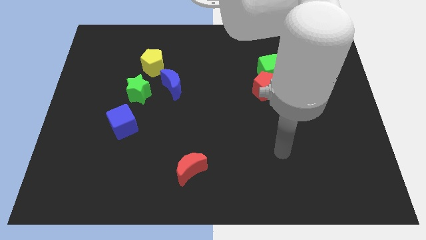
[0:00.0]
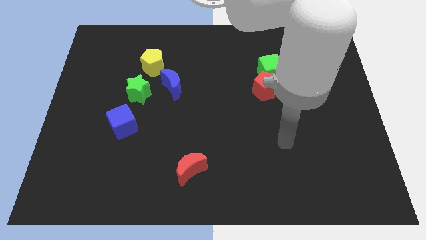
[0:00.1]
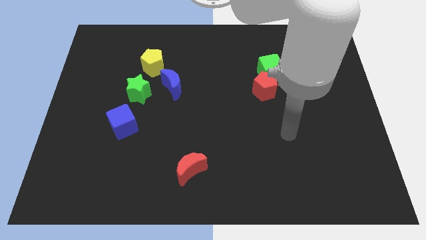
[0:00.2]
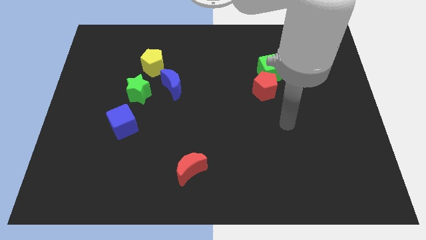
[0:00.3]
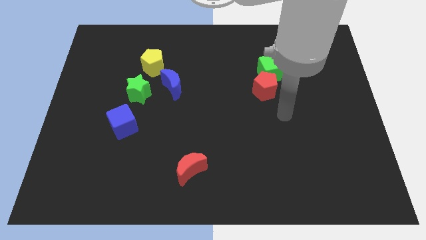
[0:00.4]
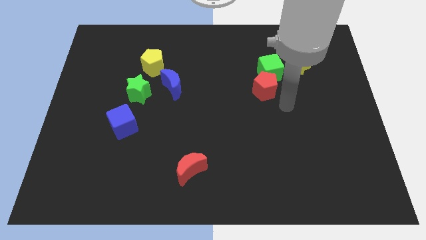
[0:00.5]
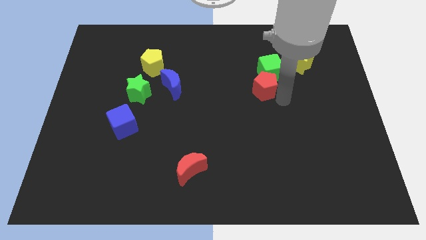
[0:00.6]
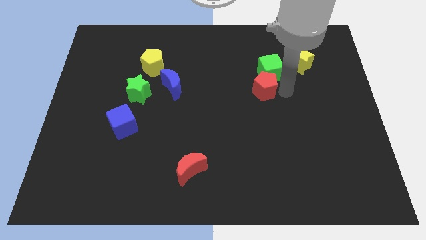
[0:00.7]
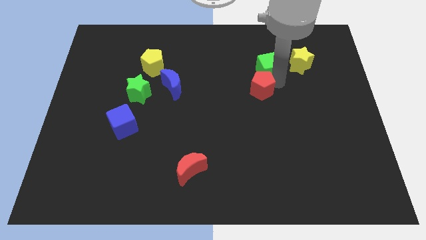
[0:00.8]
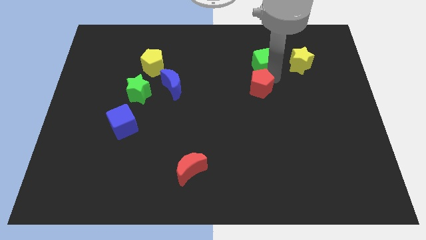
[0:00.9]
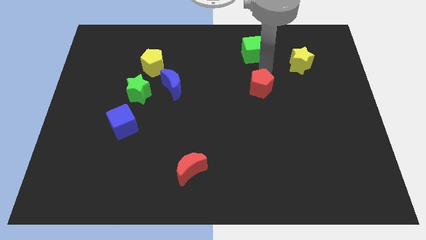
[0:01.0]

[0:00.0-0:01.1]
separate the red pentagon from the green cube

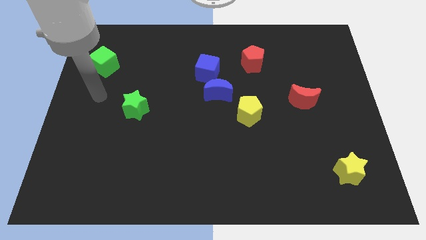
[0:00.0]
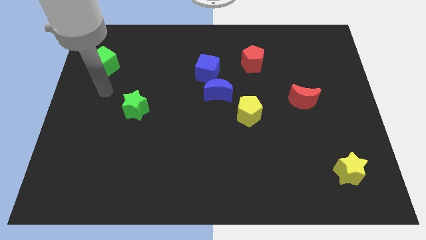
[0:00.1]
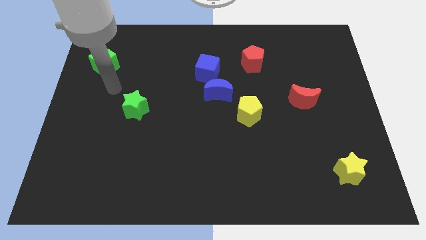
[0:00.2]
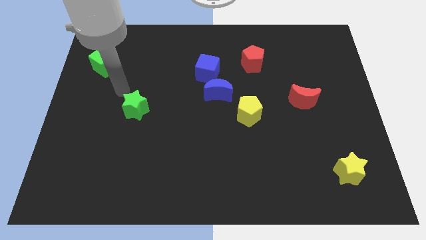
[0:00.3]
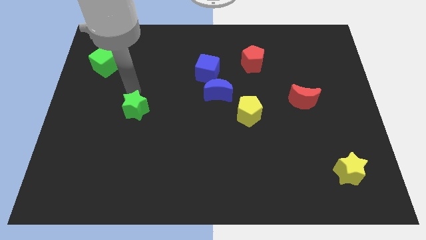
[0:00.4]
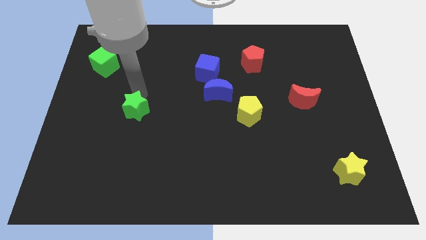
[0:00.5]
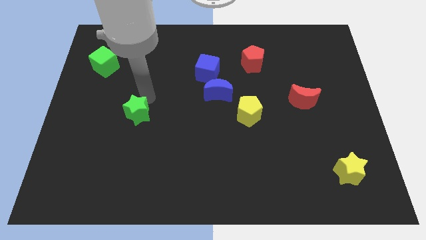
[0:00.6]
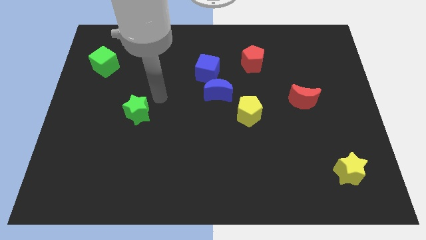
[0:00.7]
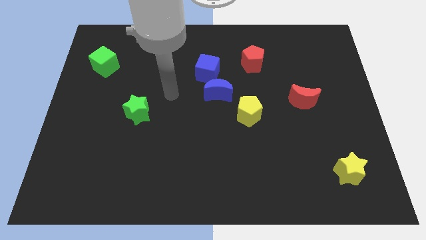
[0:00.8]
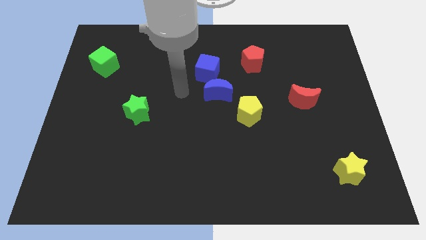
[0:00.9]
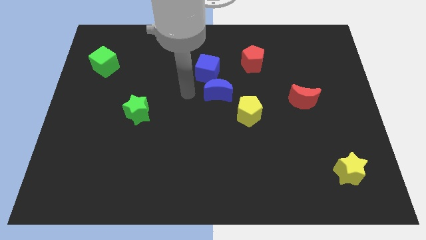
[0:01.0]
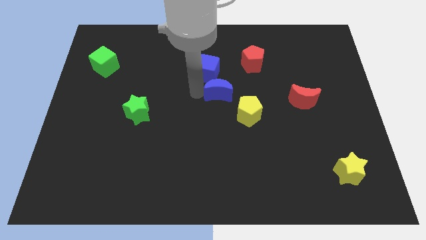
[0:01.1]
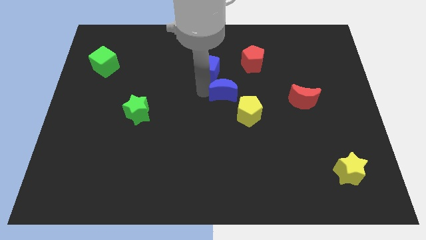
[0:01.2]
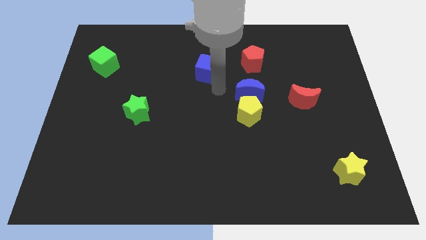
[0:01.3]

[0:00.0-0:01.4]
separate the blue cube from the blue moon

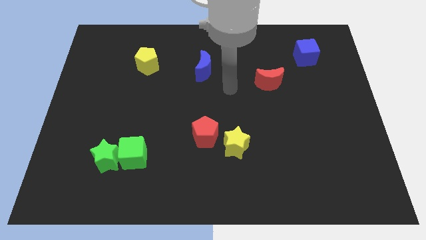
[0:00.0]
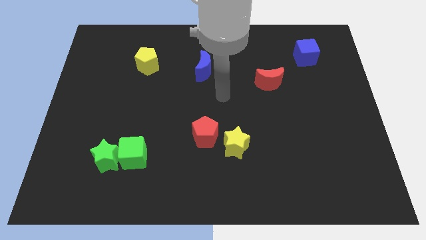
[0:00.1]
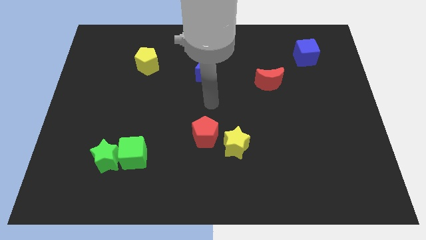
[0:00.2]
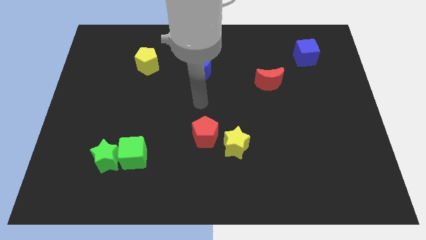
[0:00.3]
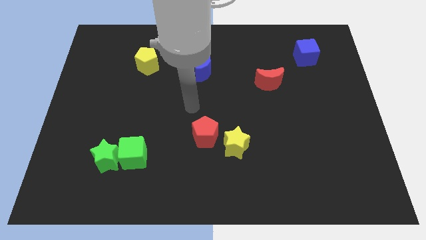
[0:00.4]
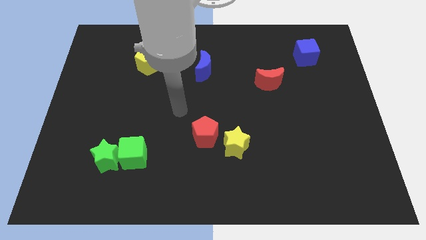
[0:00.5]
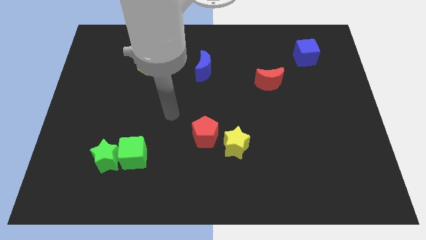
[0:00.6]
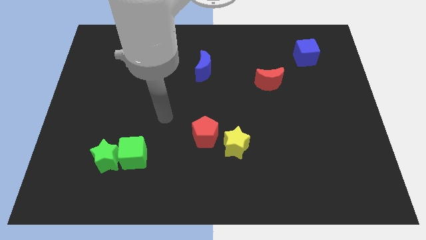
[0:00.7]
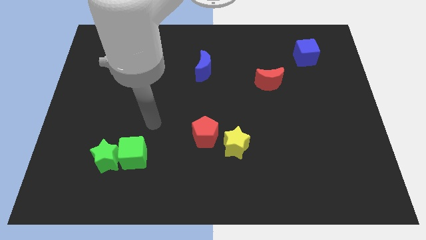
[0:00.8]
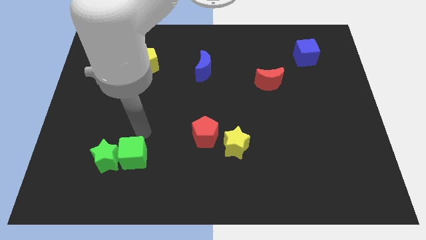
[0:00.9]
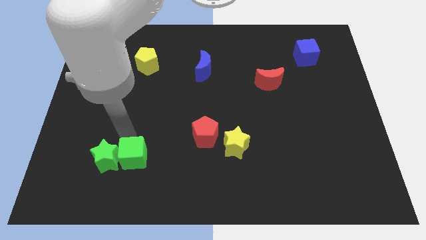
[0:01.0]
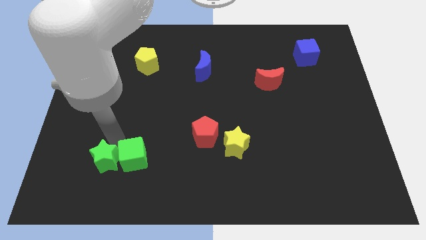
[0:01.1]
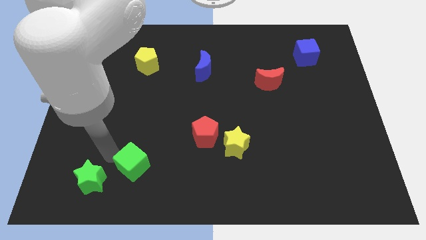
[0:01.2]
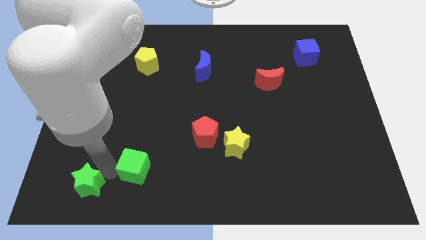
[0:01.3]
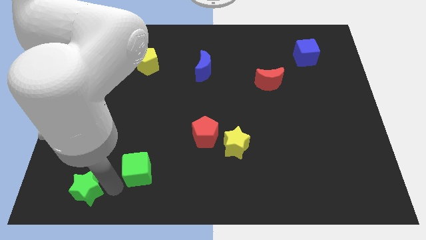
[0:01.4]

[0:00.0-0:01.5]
pull the green cube apart from the green star

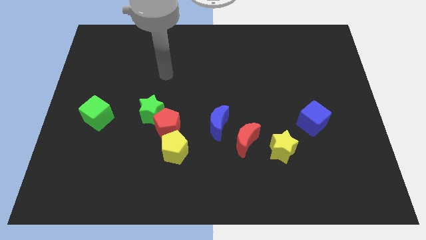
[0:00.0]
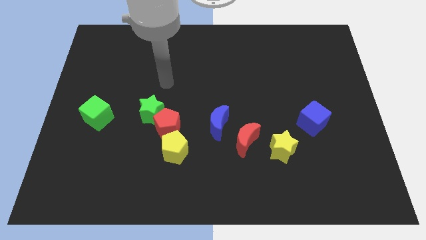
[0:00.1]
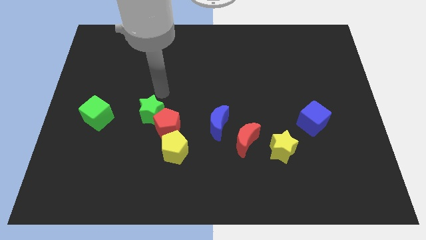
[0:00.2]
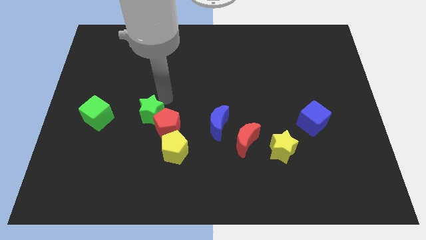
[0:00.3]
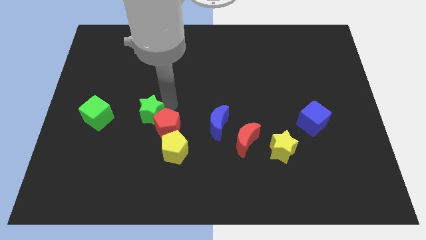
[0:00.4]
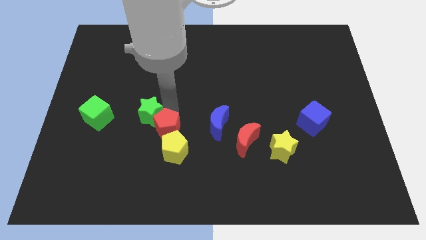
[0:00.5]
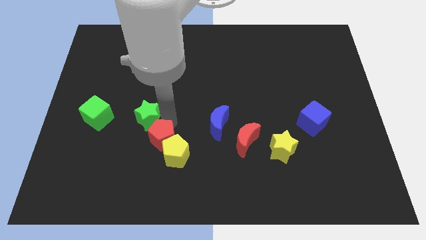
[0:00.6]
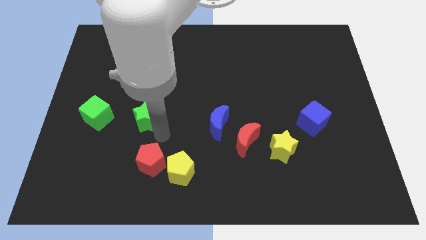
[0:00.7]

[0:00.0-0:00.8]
separate the green star from the red pentagon

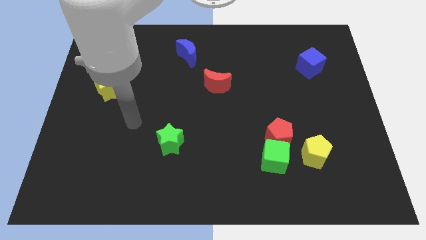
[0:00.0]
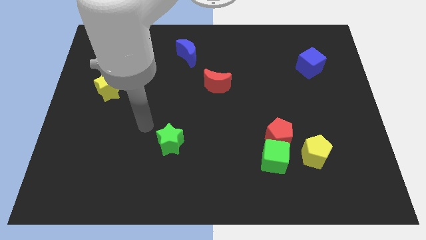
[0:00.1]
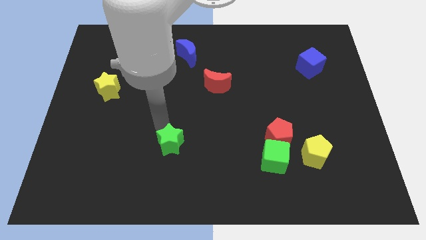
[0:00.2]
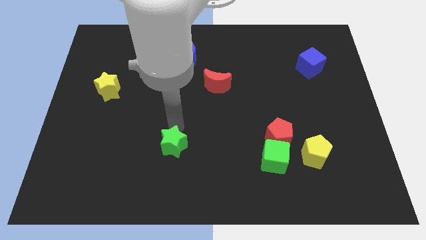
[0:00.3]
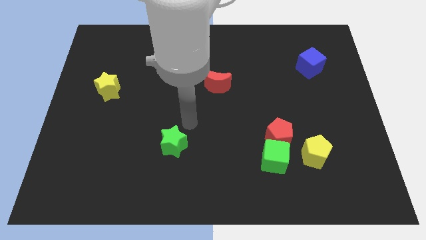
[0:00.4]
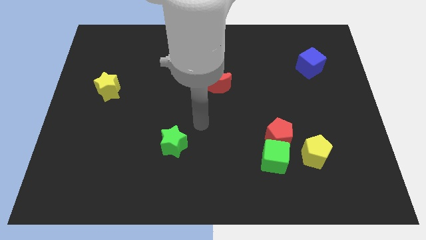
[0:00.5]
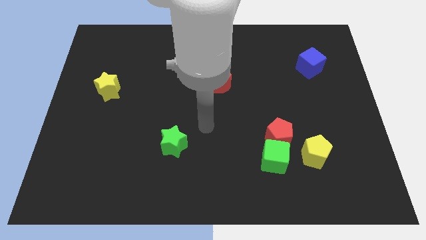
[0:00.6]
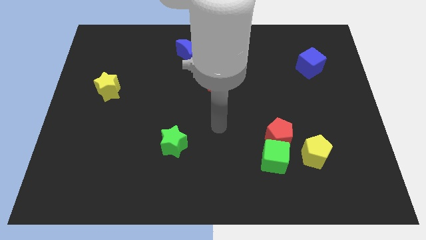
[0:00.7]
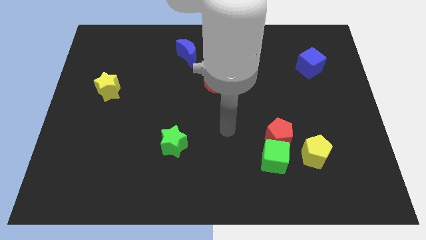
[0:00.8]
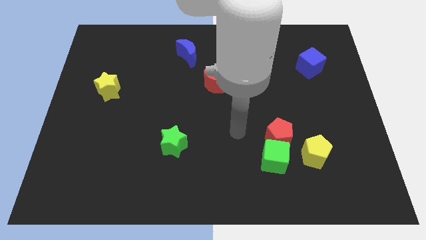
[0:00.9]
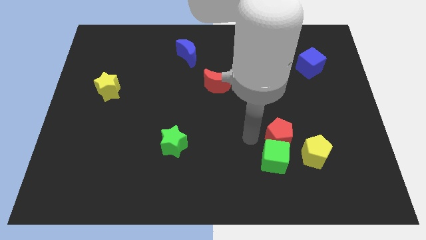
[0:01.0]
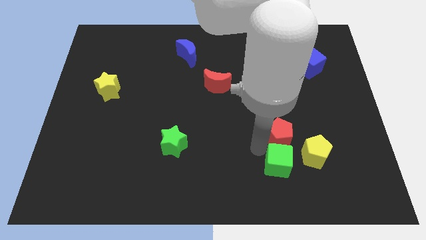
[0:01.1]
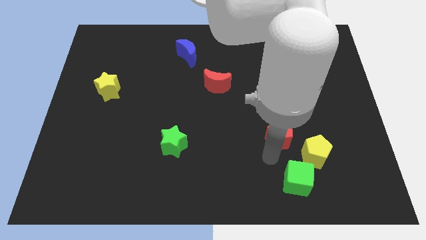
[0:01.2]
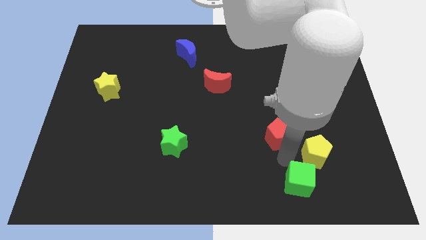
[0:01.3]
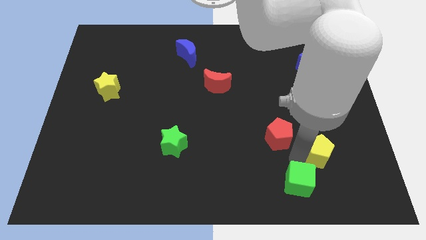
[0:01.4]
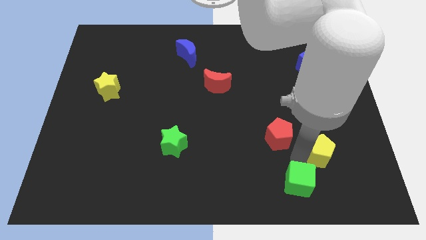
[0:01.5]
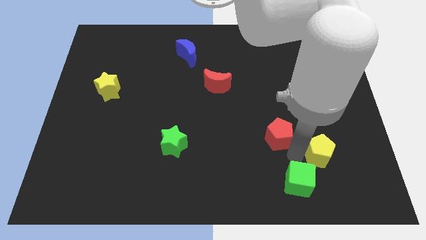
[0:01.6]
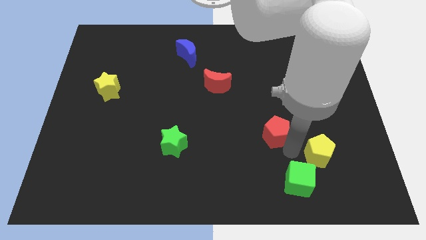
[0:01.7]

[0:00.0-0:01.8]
move the red pentagon away from the green cube and yellow pentagon

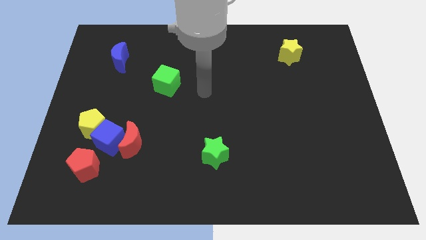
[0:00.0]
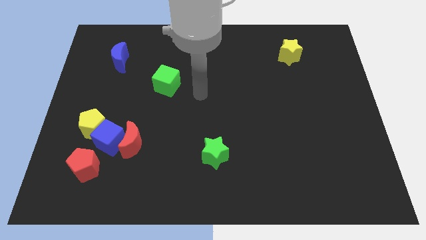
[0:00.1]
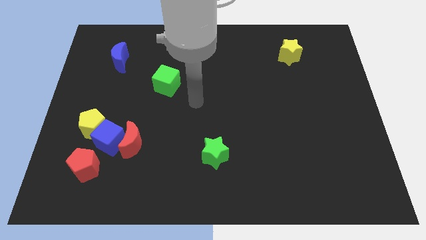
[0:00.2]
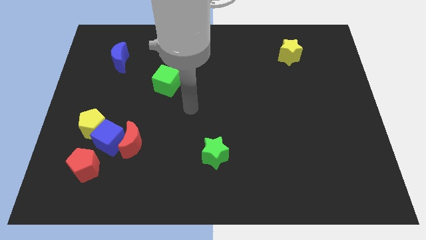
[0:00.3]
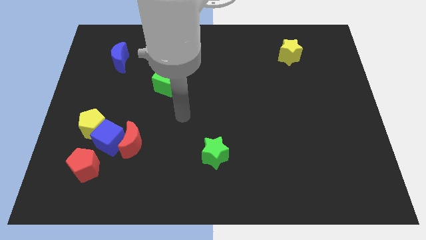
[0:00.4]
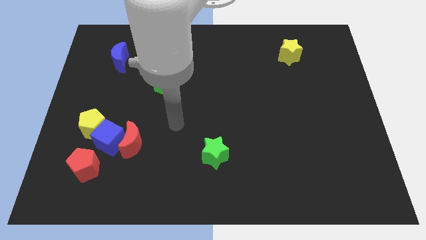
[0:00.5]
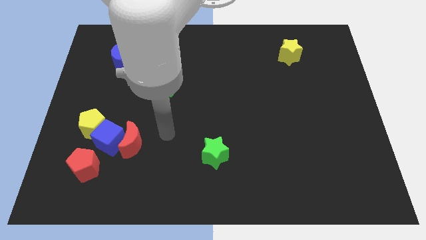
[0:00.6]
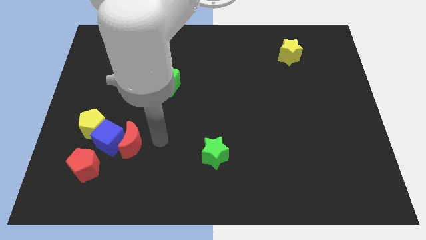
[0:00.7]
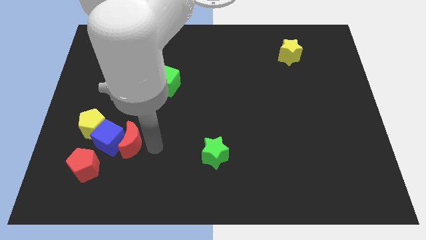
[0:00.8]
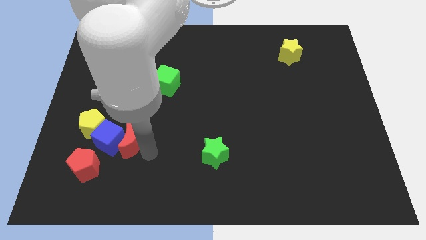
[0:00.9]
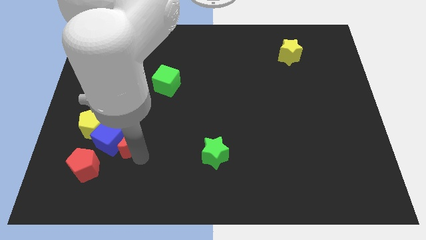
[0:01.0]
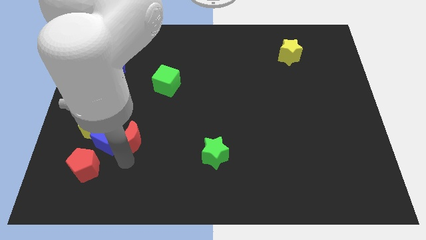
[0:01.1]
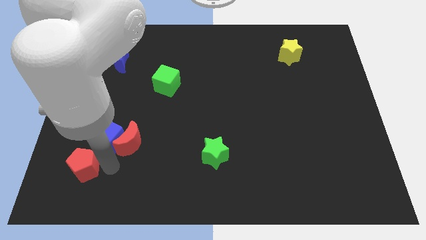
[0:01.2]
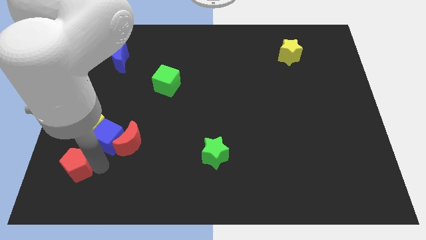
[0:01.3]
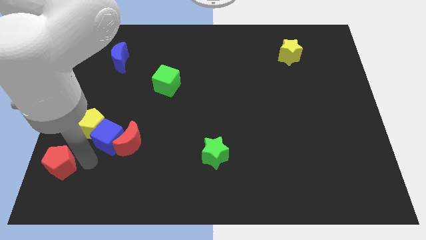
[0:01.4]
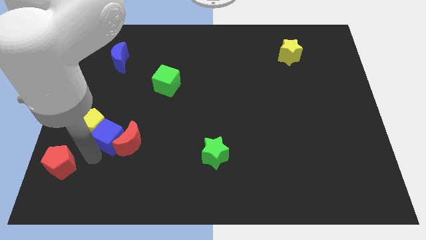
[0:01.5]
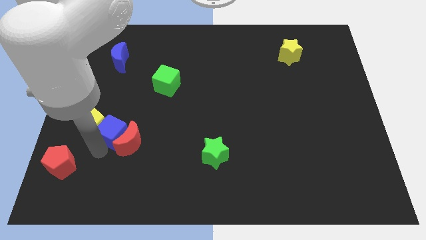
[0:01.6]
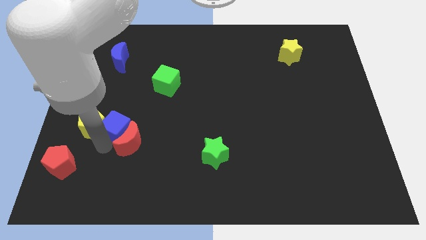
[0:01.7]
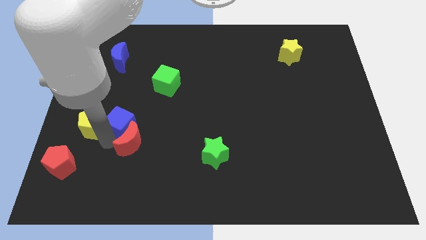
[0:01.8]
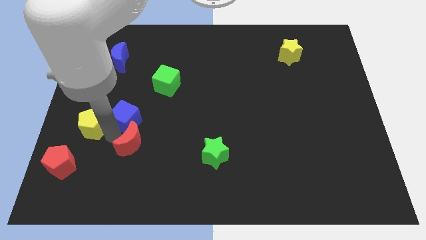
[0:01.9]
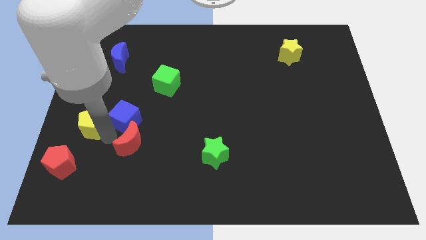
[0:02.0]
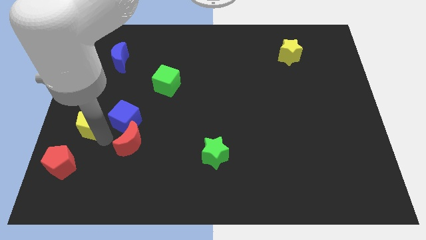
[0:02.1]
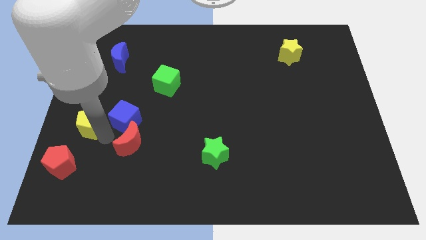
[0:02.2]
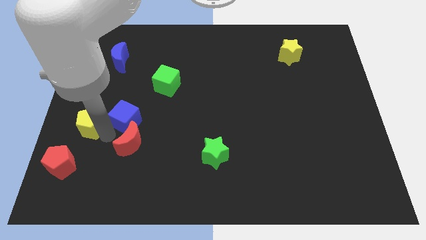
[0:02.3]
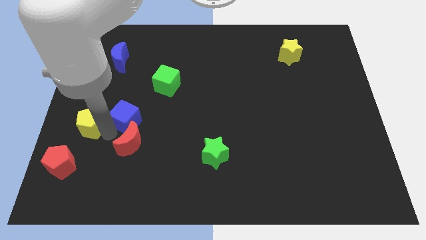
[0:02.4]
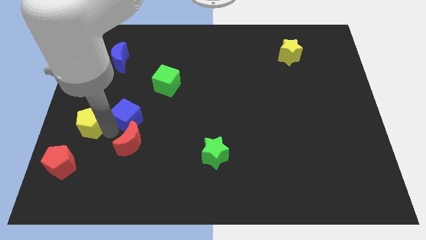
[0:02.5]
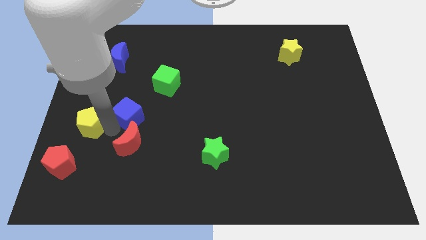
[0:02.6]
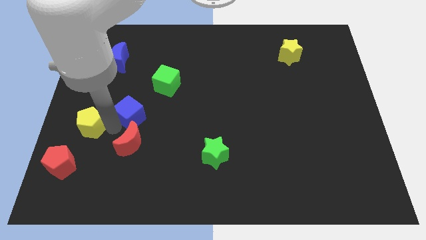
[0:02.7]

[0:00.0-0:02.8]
pull the blue cube apart from the group
